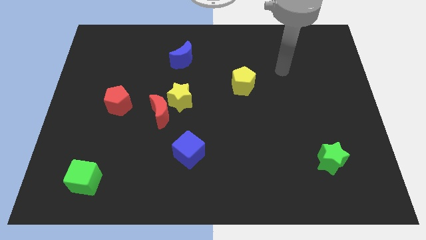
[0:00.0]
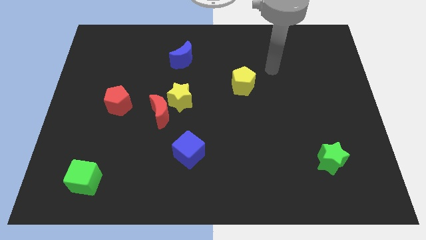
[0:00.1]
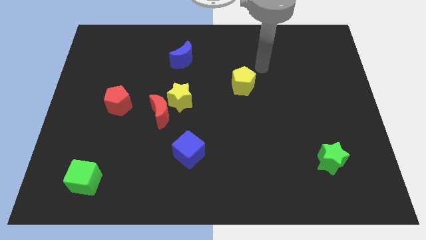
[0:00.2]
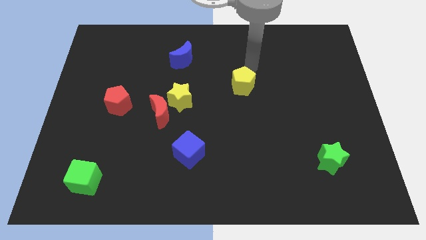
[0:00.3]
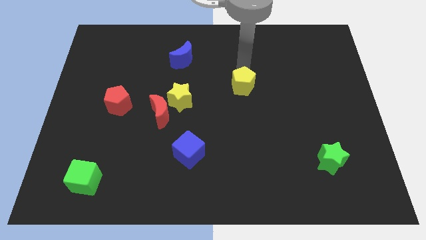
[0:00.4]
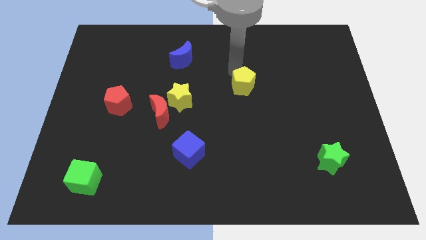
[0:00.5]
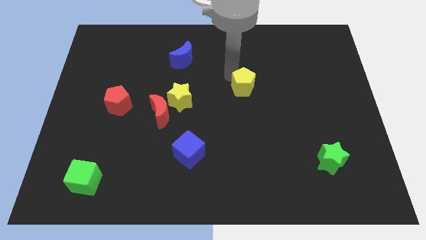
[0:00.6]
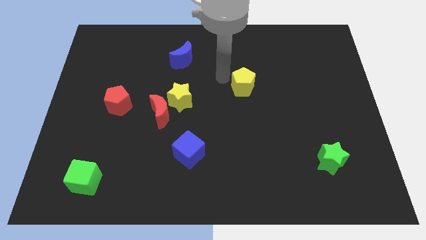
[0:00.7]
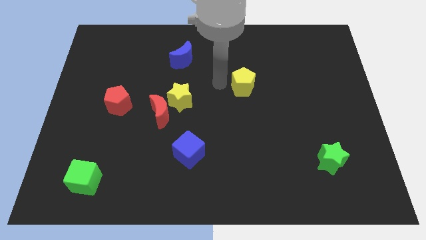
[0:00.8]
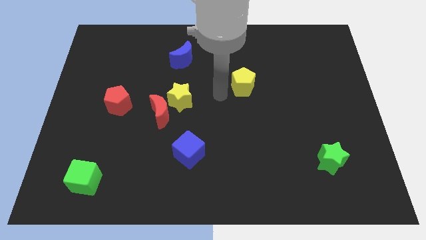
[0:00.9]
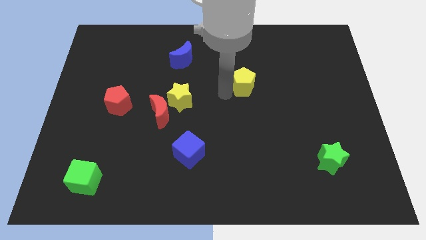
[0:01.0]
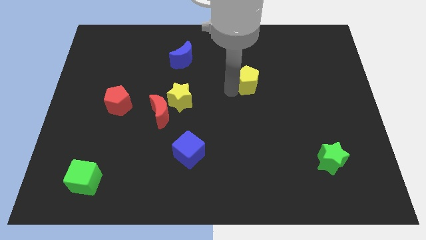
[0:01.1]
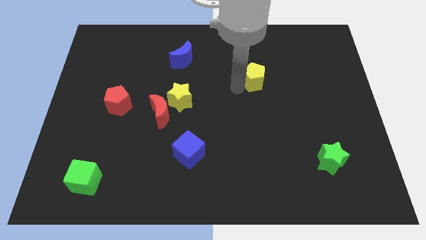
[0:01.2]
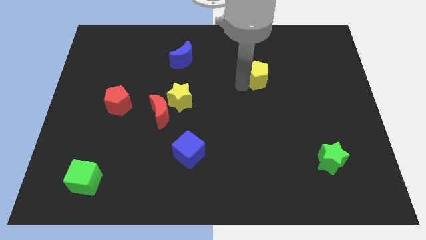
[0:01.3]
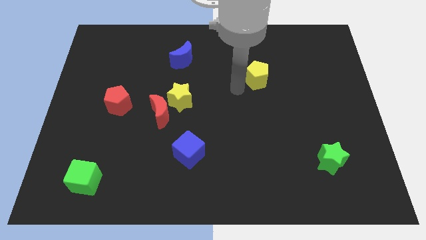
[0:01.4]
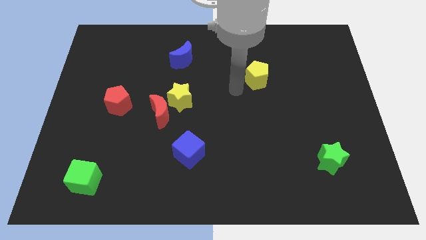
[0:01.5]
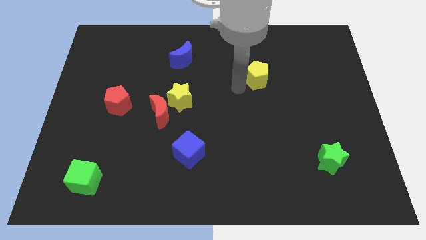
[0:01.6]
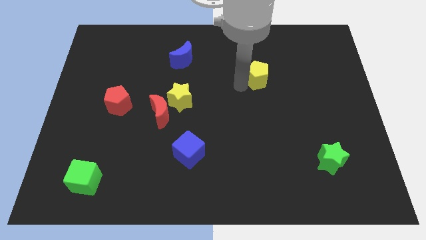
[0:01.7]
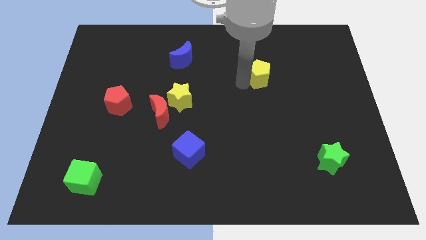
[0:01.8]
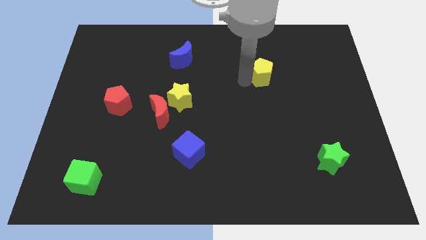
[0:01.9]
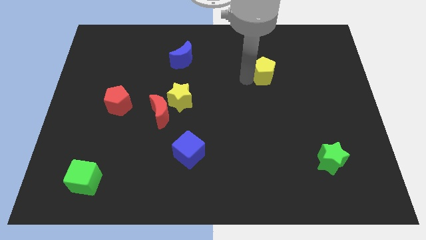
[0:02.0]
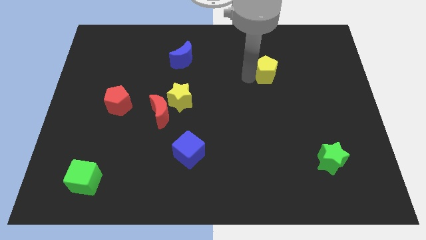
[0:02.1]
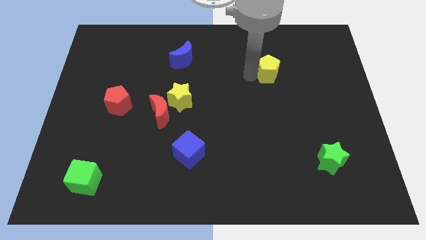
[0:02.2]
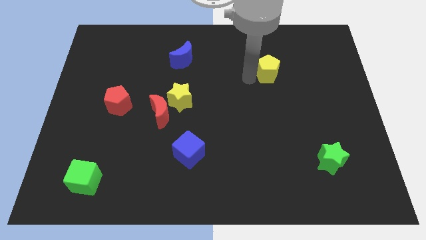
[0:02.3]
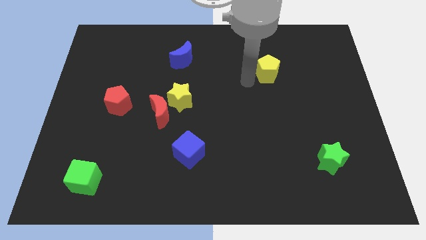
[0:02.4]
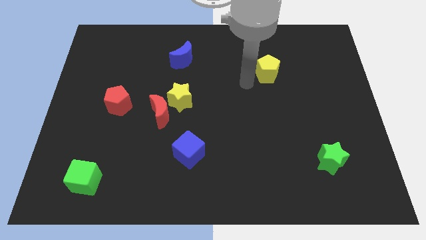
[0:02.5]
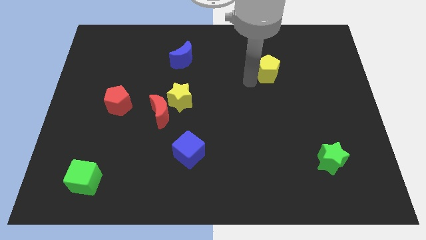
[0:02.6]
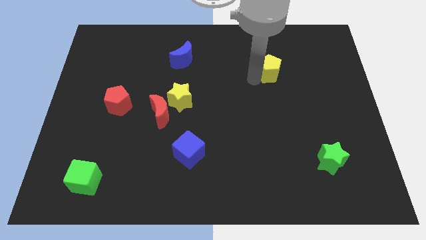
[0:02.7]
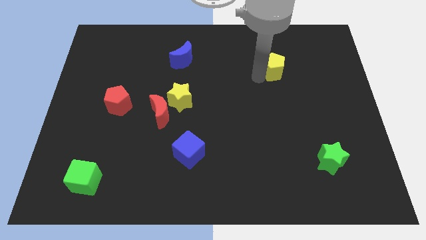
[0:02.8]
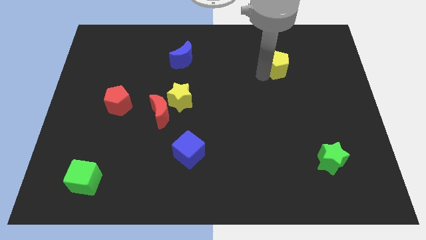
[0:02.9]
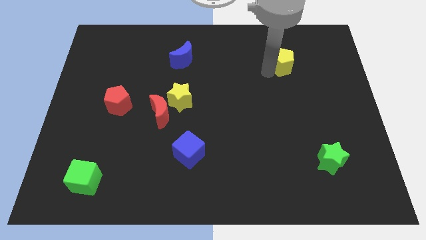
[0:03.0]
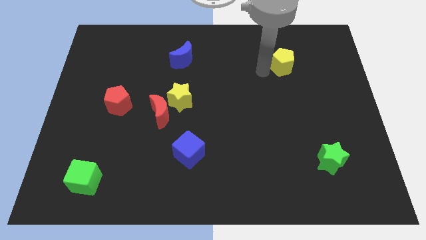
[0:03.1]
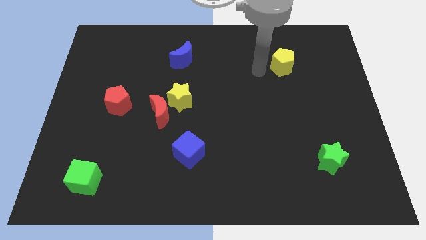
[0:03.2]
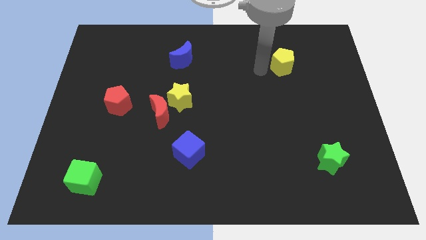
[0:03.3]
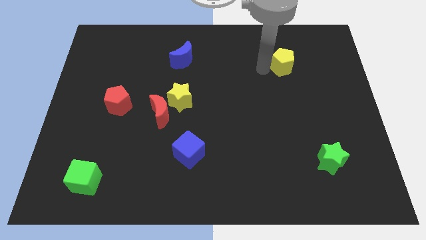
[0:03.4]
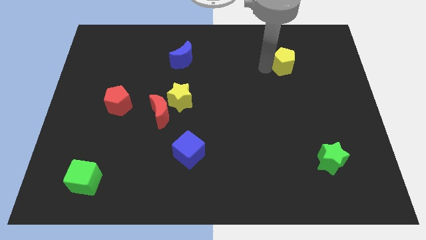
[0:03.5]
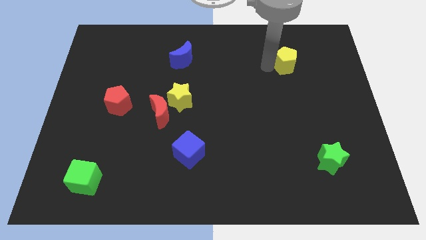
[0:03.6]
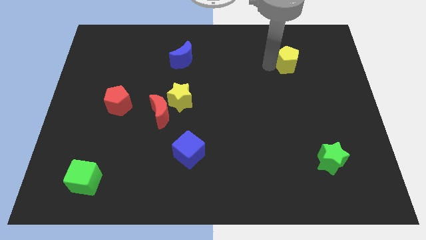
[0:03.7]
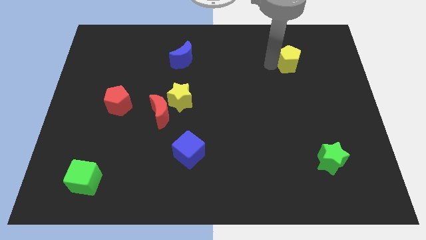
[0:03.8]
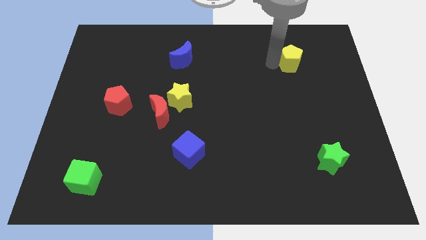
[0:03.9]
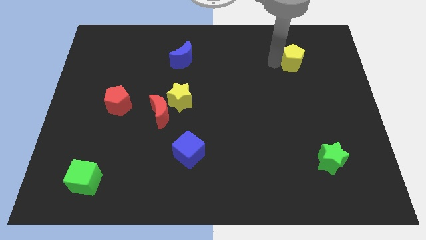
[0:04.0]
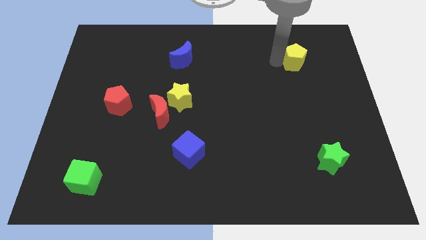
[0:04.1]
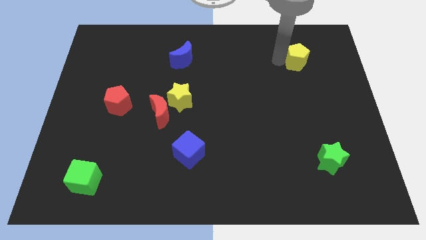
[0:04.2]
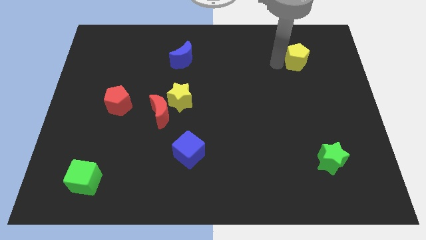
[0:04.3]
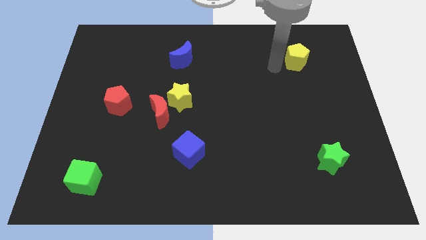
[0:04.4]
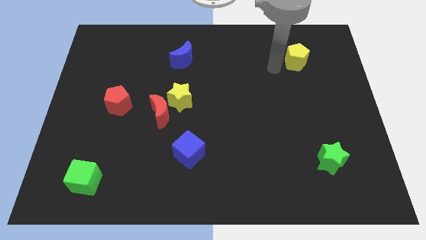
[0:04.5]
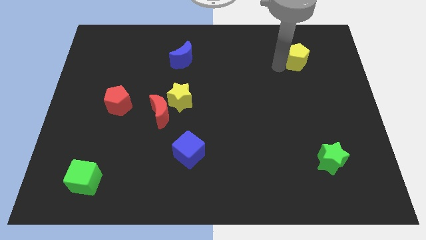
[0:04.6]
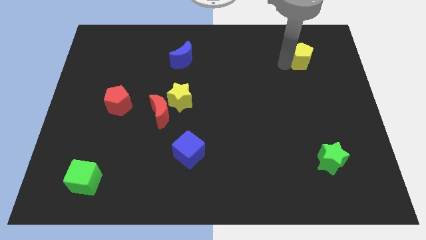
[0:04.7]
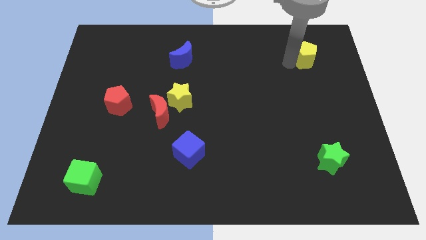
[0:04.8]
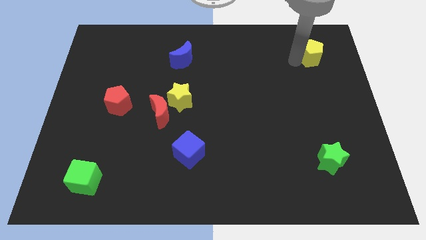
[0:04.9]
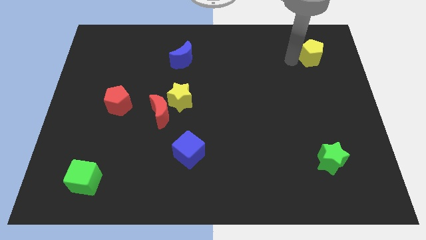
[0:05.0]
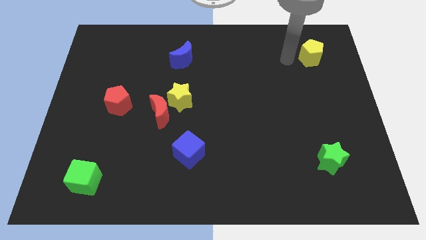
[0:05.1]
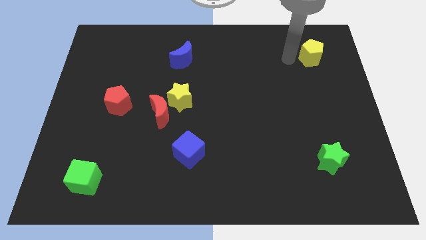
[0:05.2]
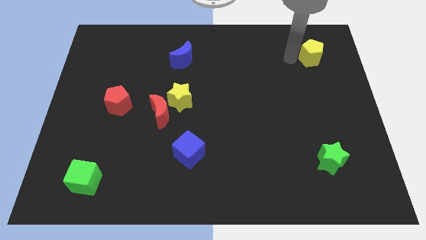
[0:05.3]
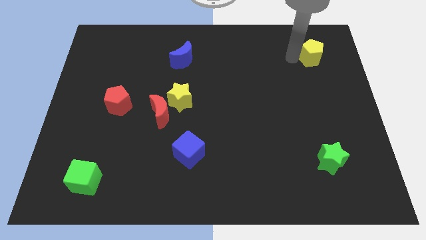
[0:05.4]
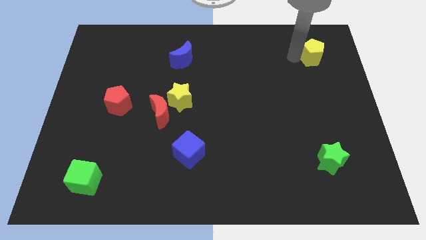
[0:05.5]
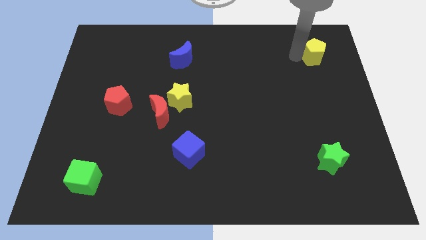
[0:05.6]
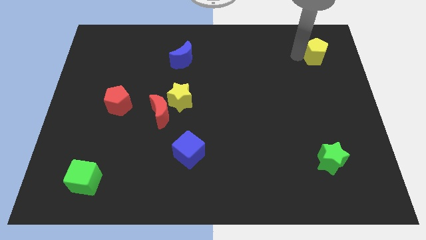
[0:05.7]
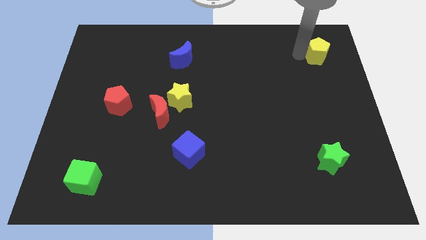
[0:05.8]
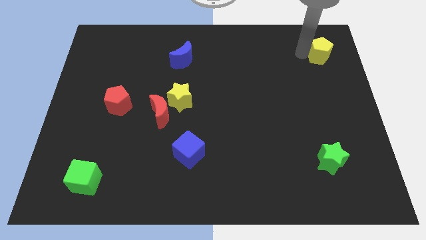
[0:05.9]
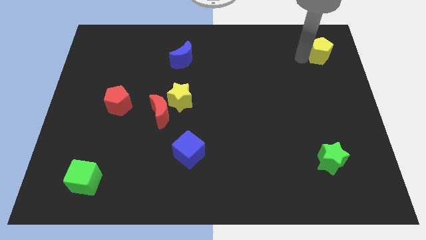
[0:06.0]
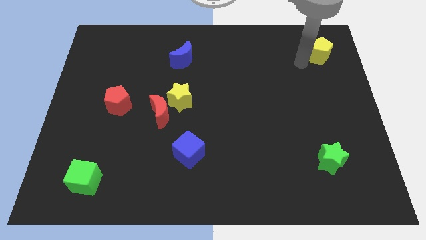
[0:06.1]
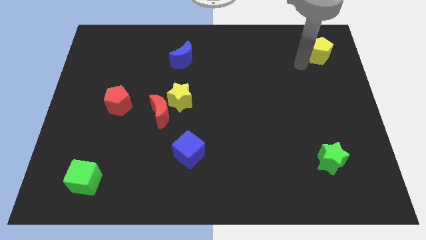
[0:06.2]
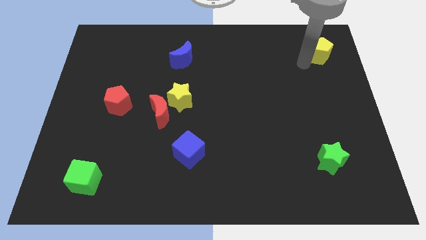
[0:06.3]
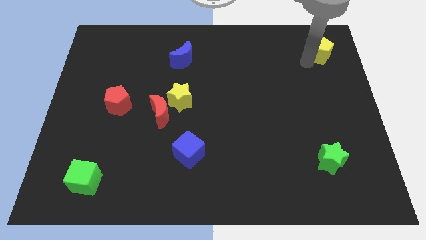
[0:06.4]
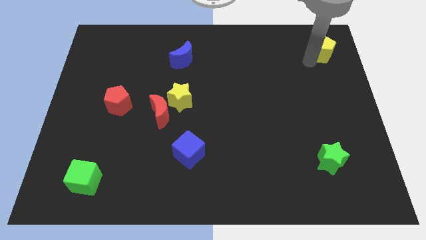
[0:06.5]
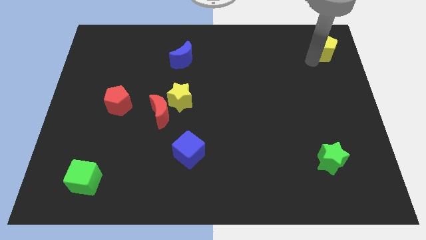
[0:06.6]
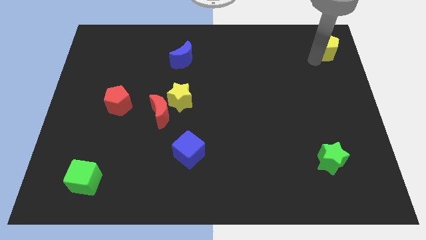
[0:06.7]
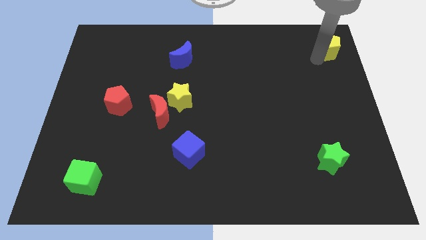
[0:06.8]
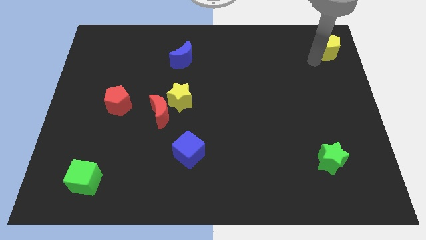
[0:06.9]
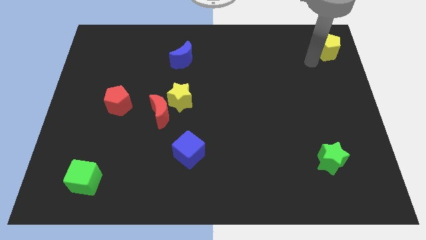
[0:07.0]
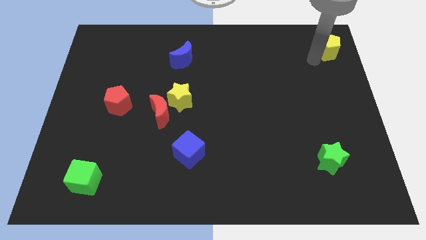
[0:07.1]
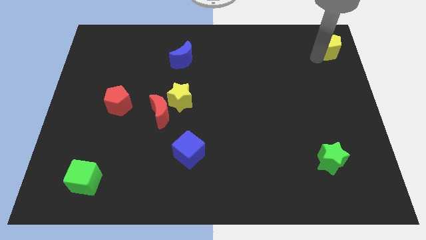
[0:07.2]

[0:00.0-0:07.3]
move the yellow pentagon to the top right
